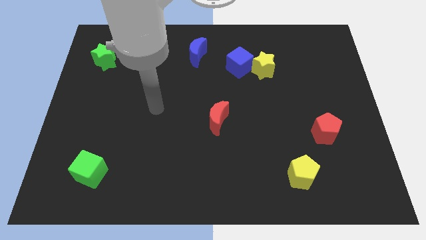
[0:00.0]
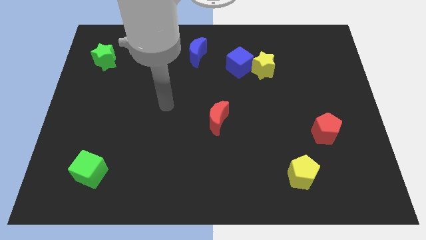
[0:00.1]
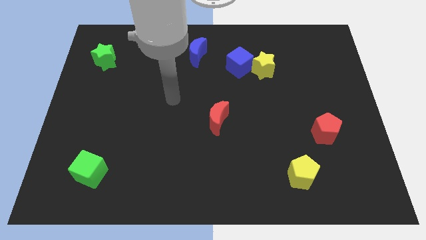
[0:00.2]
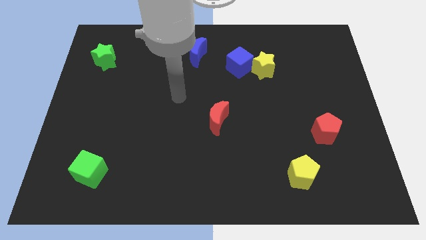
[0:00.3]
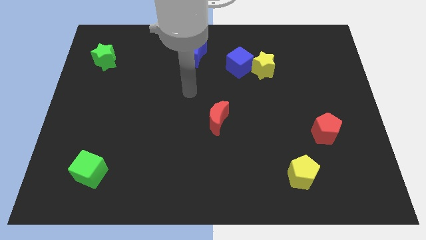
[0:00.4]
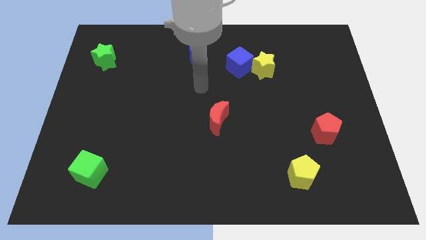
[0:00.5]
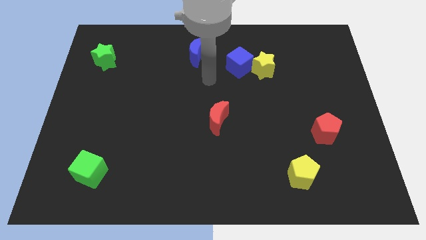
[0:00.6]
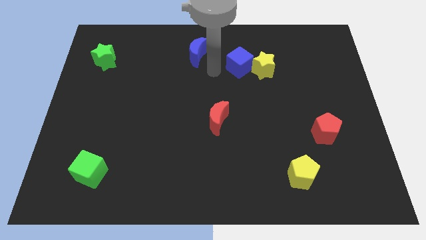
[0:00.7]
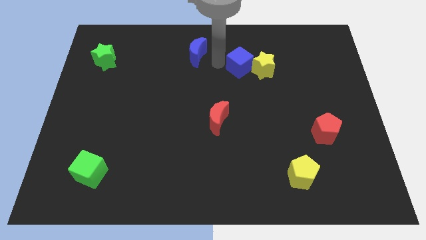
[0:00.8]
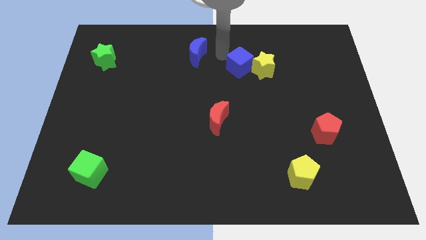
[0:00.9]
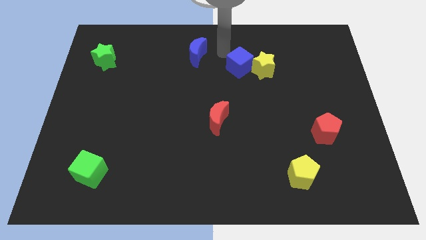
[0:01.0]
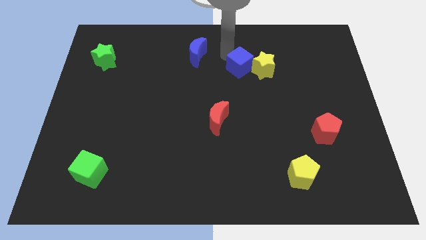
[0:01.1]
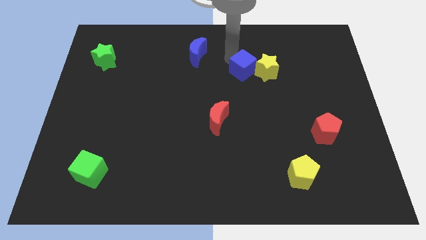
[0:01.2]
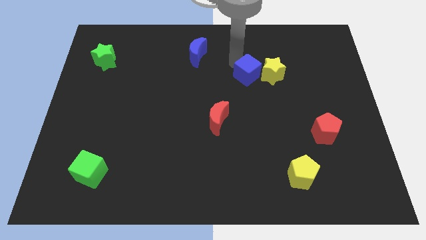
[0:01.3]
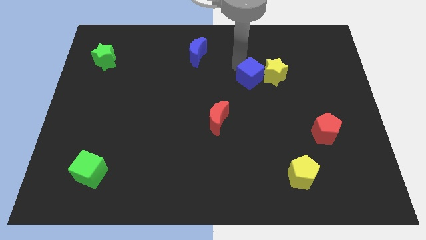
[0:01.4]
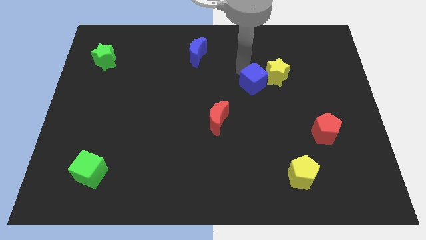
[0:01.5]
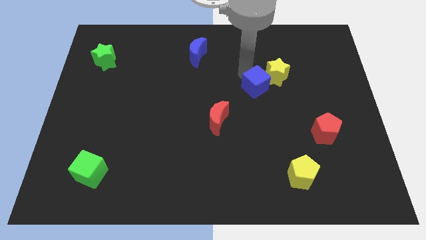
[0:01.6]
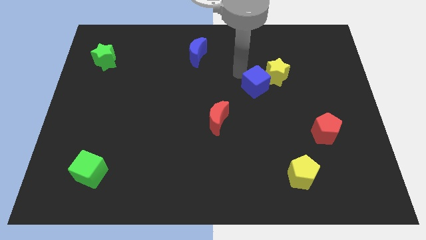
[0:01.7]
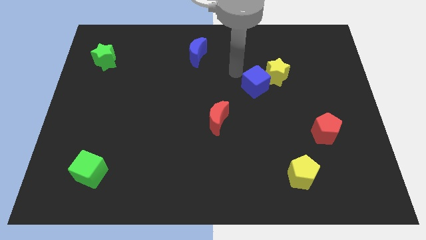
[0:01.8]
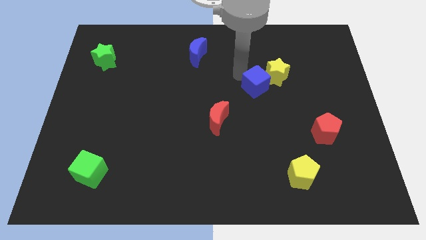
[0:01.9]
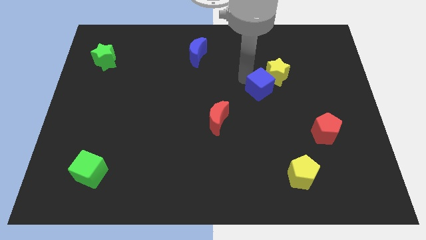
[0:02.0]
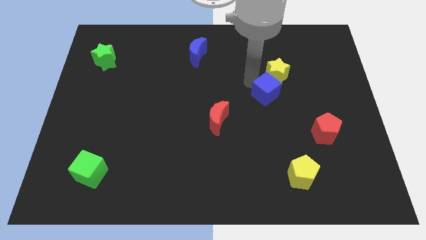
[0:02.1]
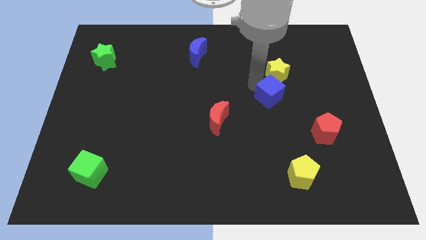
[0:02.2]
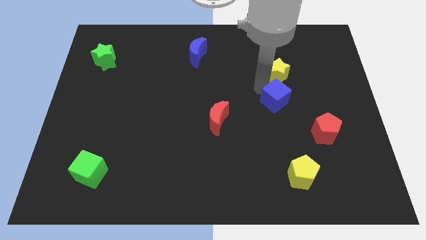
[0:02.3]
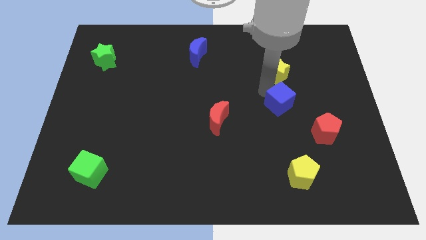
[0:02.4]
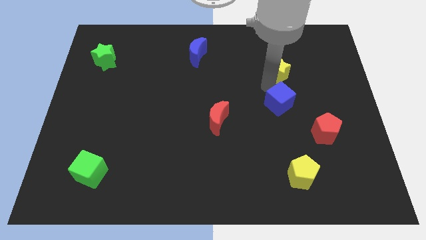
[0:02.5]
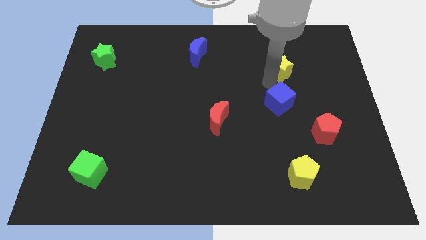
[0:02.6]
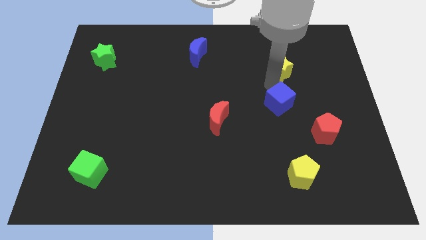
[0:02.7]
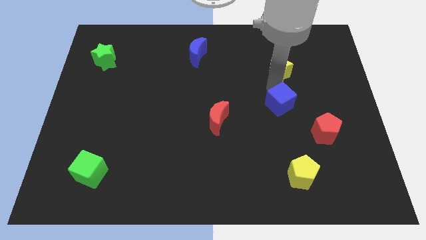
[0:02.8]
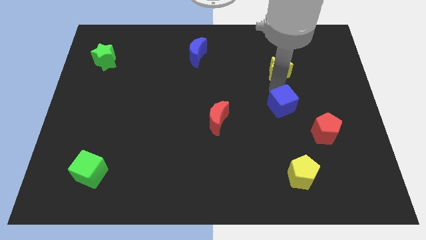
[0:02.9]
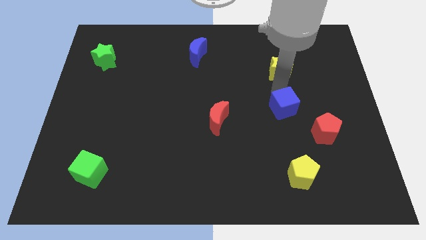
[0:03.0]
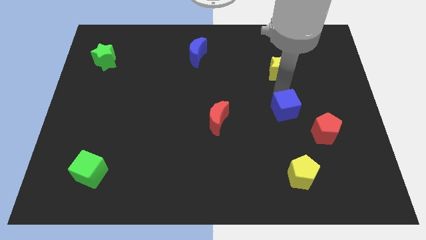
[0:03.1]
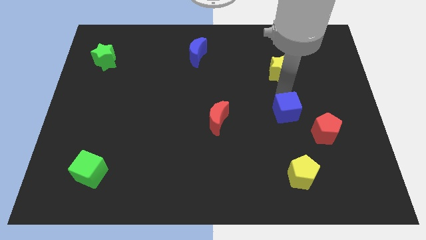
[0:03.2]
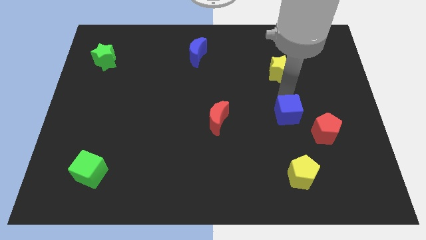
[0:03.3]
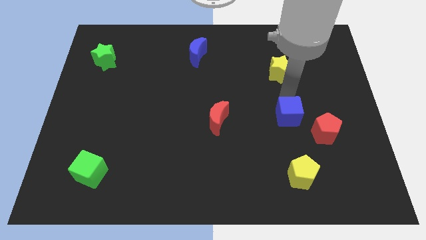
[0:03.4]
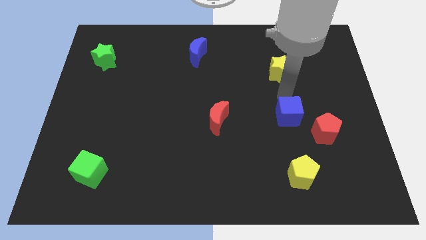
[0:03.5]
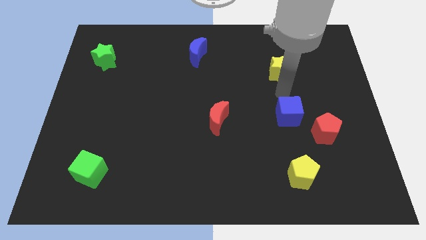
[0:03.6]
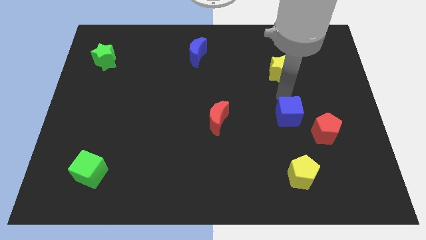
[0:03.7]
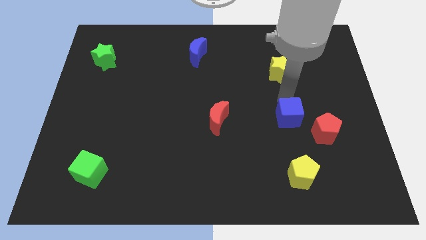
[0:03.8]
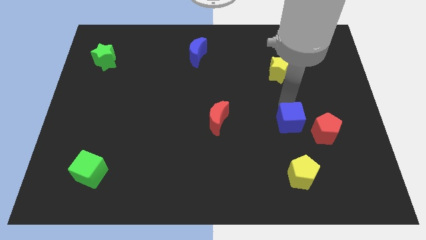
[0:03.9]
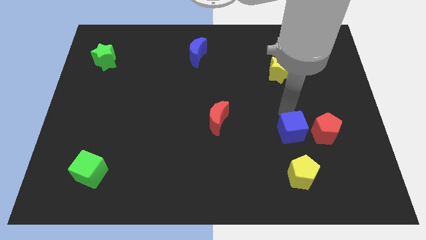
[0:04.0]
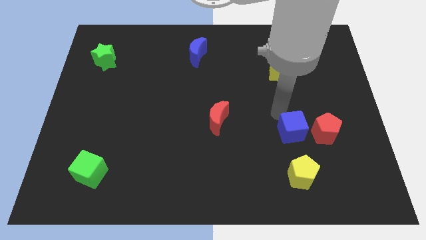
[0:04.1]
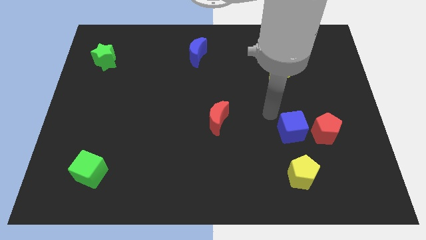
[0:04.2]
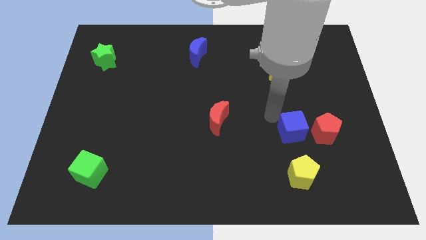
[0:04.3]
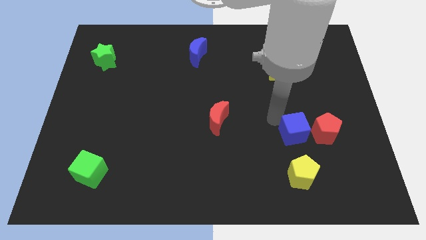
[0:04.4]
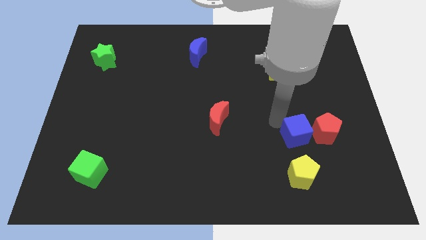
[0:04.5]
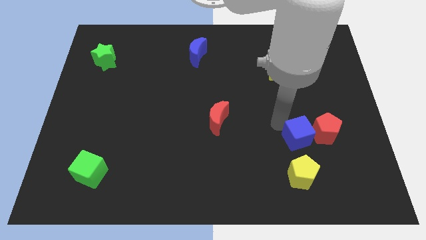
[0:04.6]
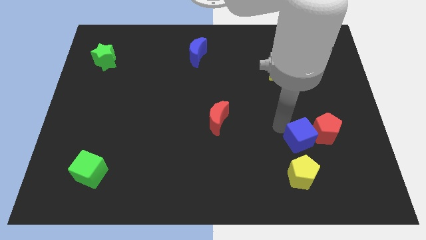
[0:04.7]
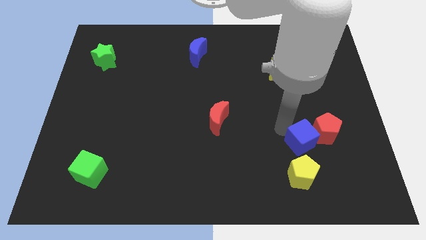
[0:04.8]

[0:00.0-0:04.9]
slide the blue cube to the top right side of the yellow pentagon

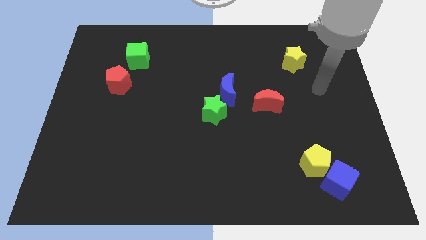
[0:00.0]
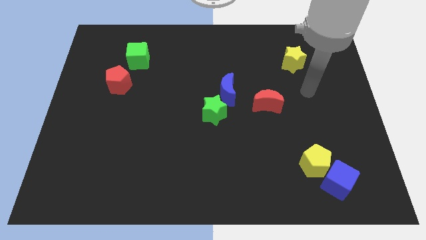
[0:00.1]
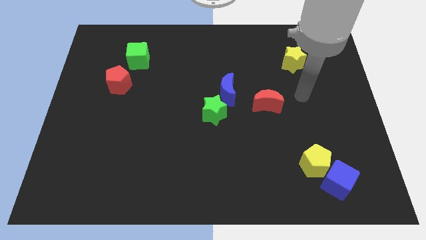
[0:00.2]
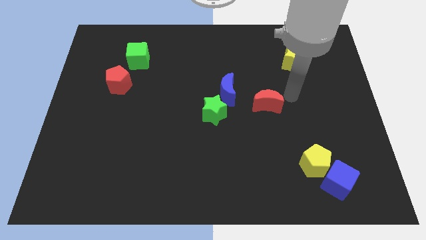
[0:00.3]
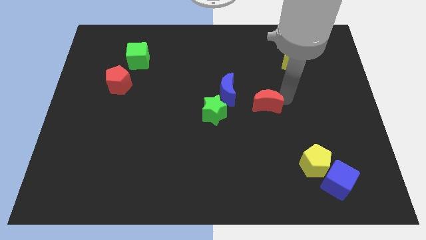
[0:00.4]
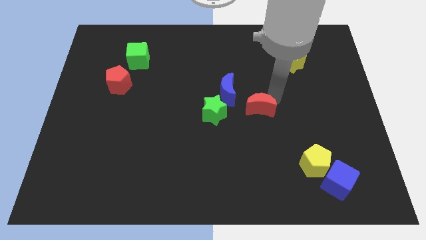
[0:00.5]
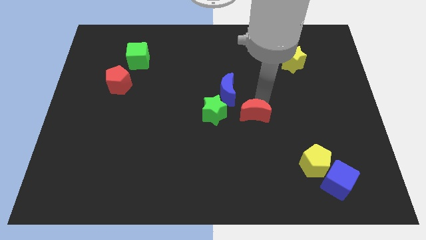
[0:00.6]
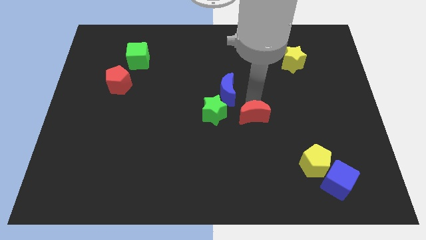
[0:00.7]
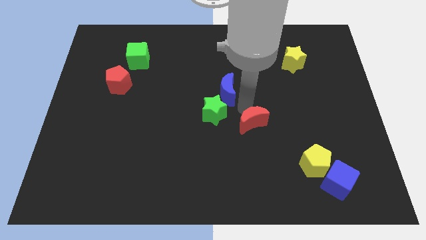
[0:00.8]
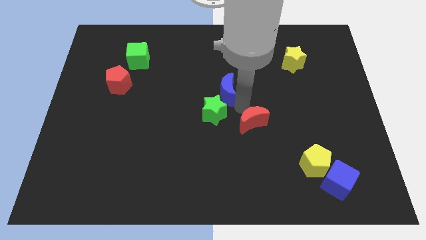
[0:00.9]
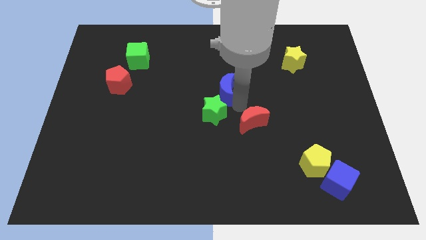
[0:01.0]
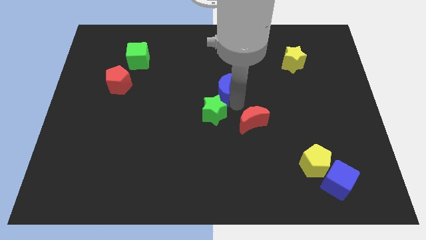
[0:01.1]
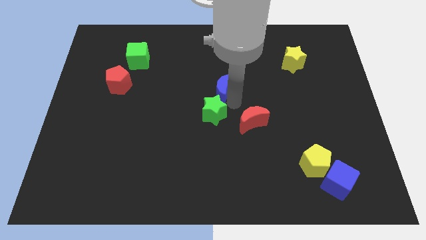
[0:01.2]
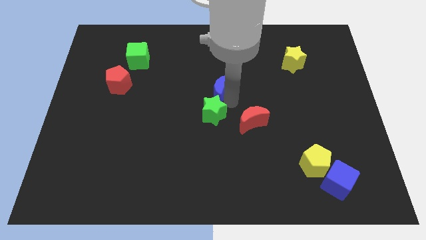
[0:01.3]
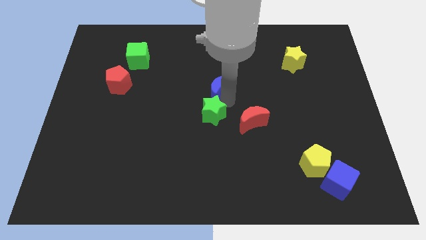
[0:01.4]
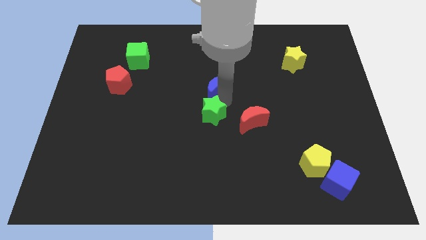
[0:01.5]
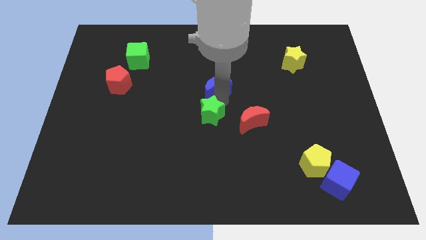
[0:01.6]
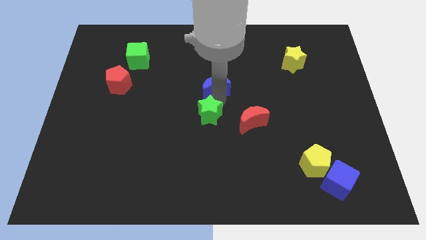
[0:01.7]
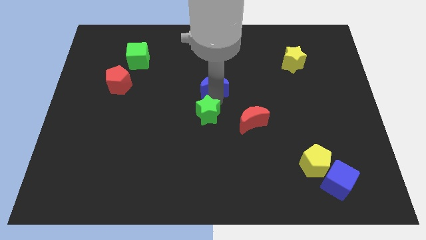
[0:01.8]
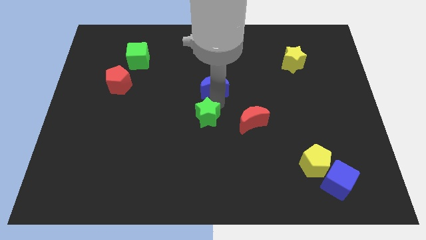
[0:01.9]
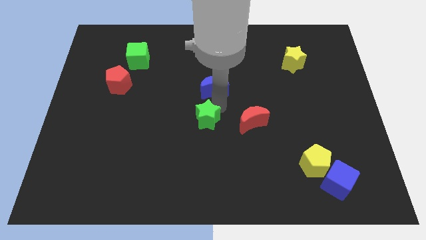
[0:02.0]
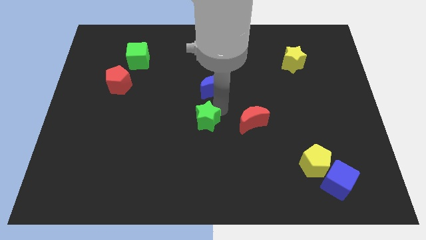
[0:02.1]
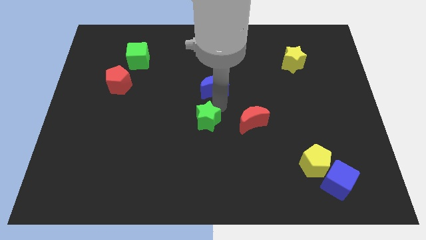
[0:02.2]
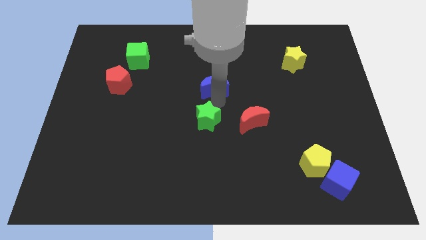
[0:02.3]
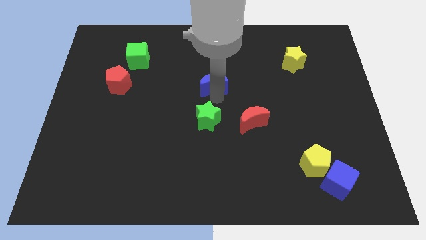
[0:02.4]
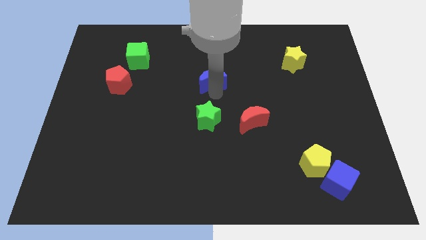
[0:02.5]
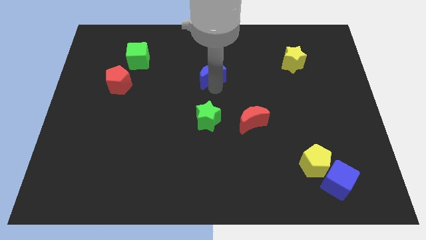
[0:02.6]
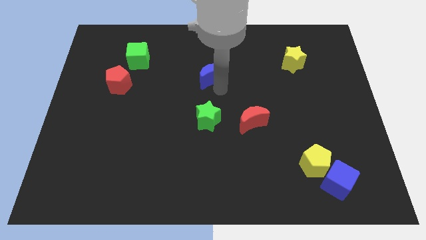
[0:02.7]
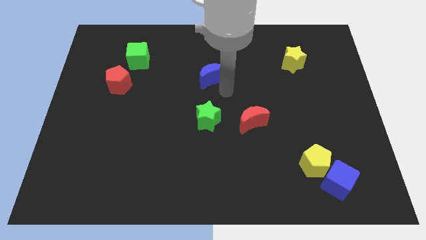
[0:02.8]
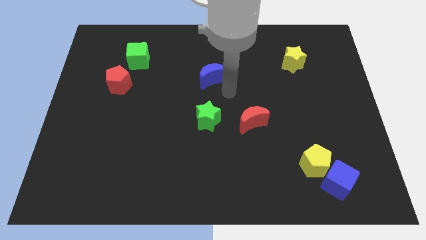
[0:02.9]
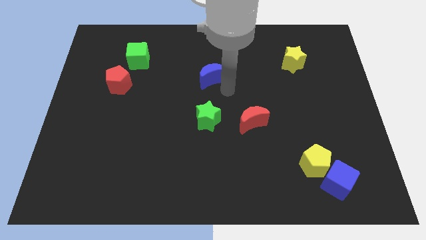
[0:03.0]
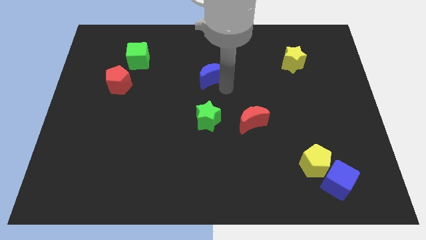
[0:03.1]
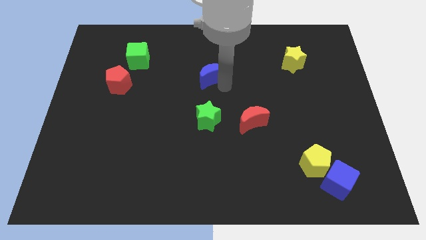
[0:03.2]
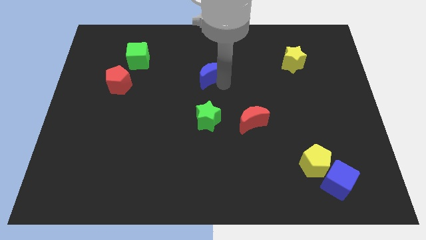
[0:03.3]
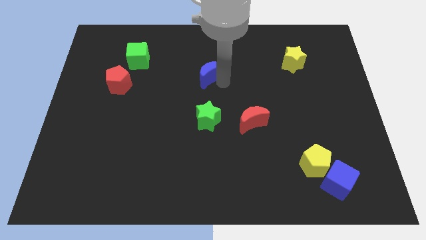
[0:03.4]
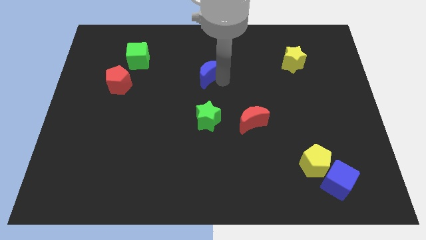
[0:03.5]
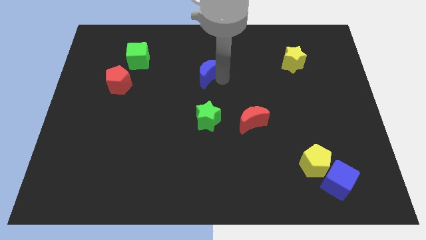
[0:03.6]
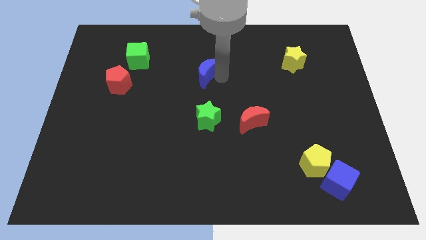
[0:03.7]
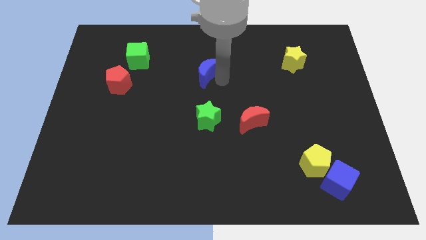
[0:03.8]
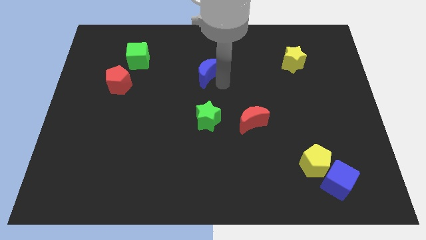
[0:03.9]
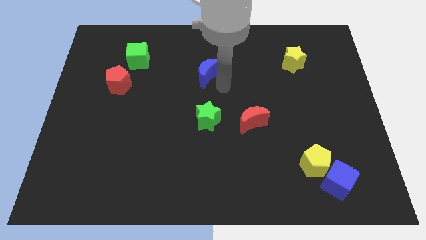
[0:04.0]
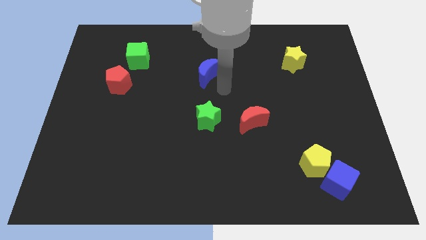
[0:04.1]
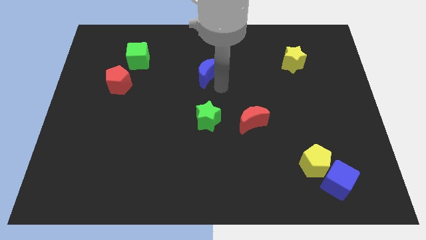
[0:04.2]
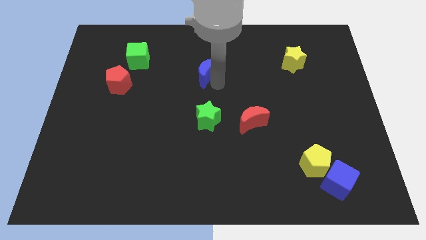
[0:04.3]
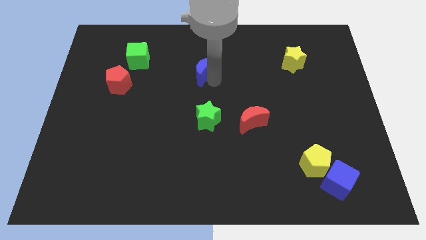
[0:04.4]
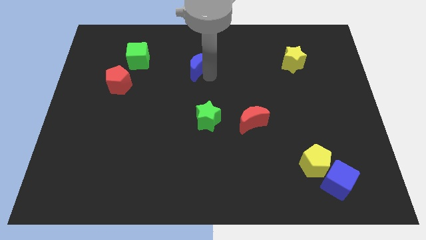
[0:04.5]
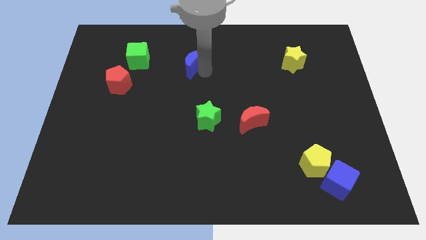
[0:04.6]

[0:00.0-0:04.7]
push the blue moon just right of the green cube
